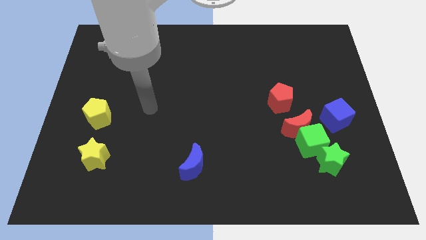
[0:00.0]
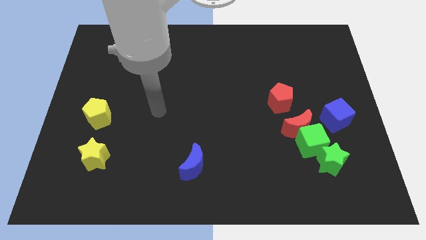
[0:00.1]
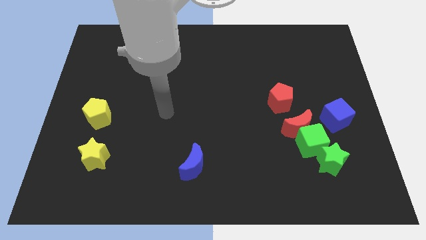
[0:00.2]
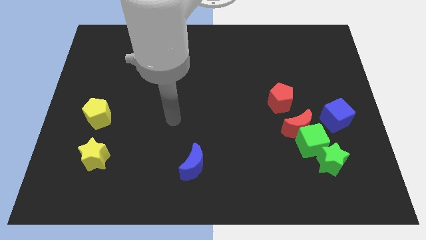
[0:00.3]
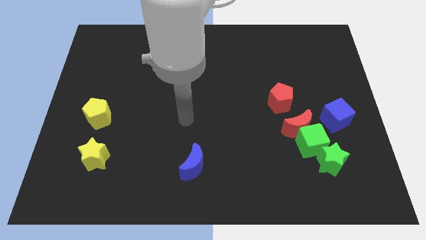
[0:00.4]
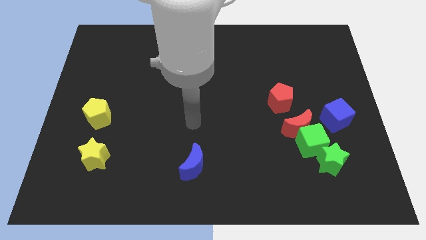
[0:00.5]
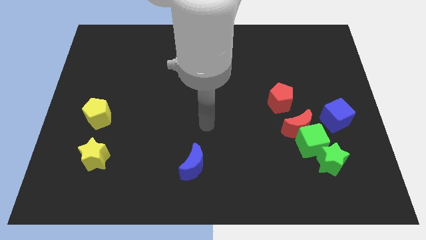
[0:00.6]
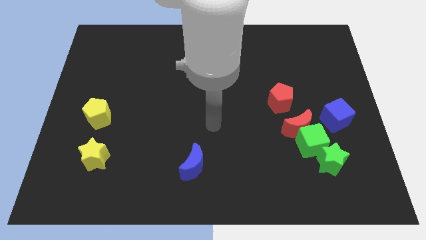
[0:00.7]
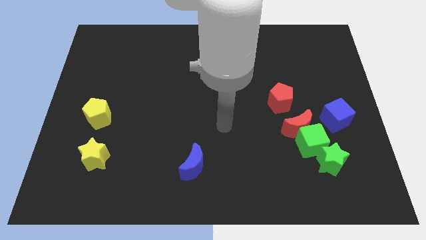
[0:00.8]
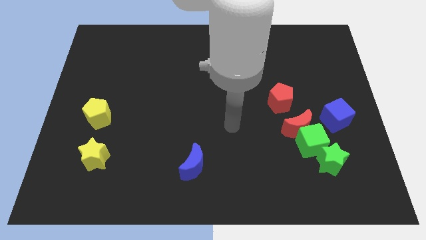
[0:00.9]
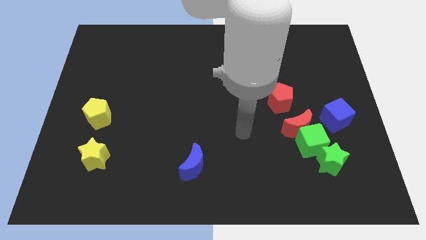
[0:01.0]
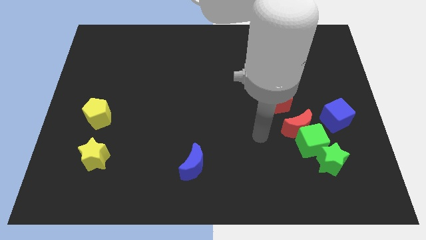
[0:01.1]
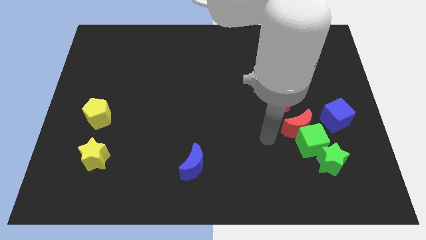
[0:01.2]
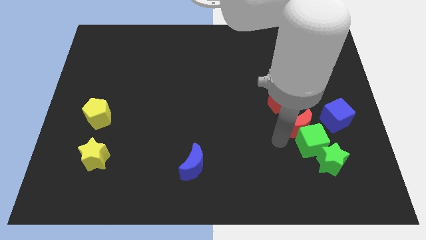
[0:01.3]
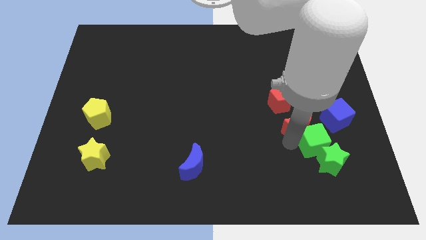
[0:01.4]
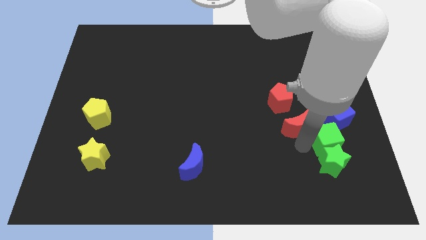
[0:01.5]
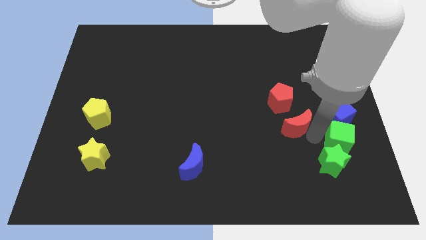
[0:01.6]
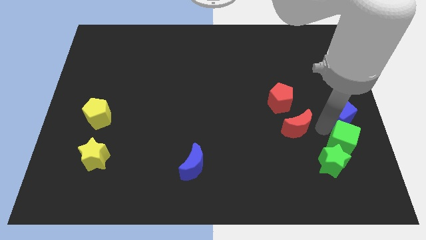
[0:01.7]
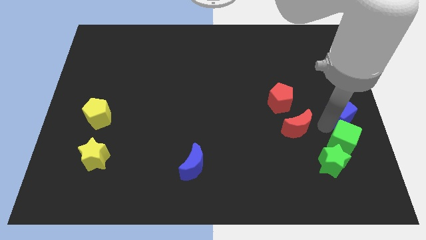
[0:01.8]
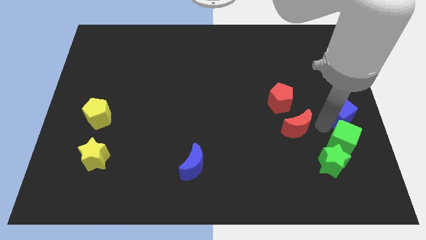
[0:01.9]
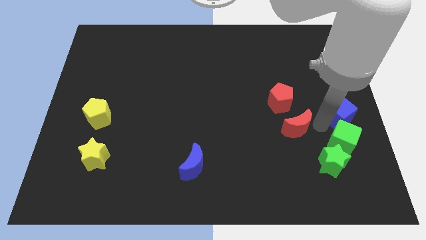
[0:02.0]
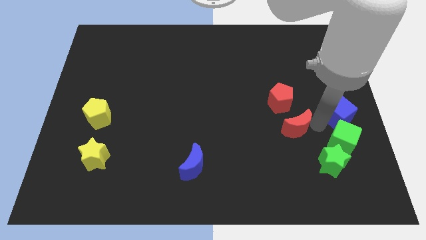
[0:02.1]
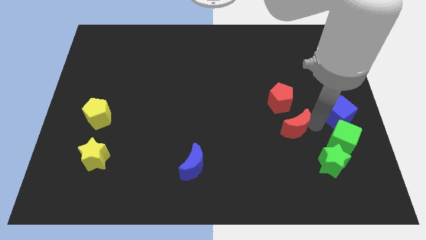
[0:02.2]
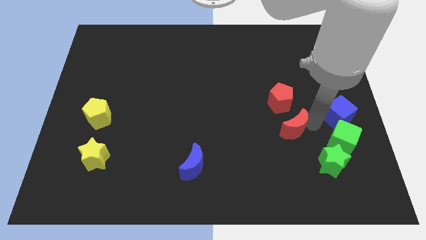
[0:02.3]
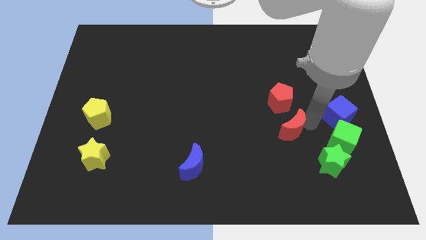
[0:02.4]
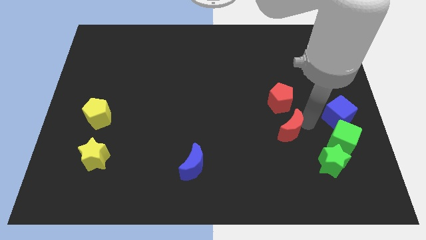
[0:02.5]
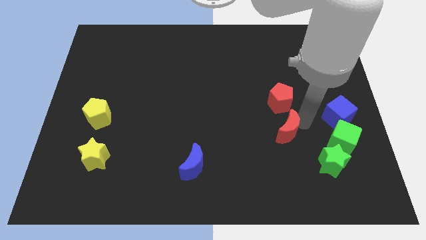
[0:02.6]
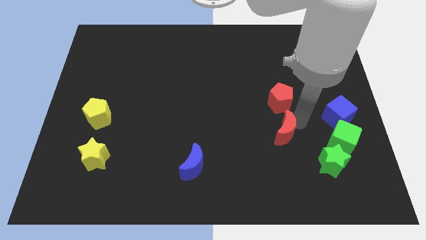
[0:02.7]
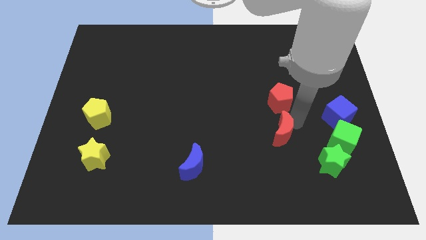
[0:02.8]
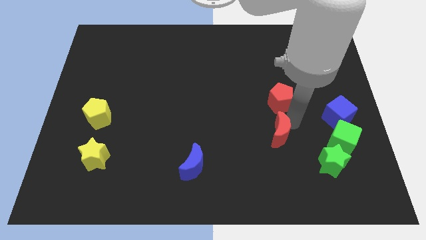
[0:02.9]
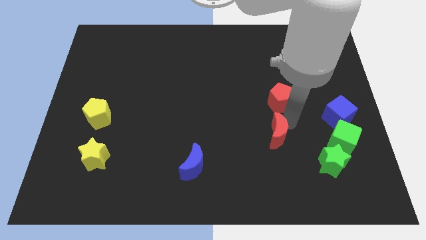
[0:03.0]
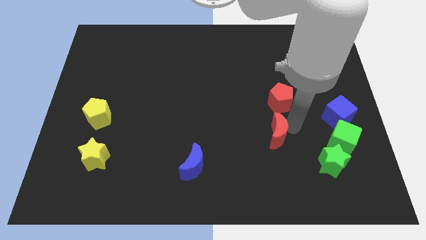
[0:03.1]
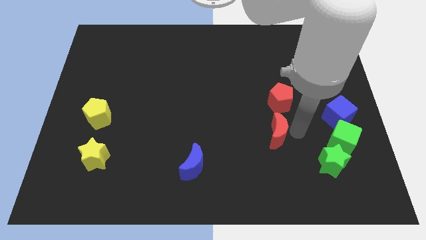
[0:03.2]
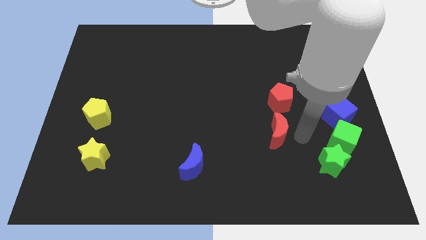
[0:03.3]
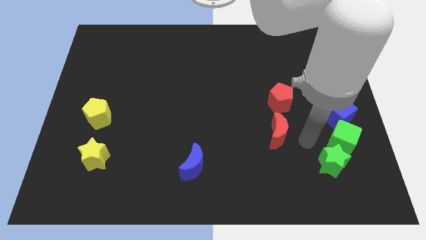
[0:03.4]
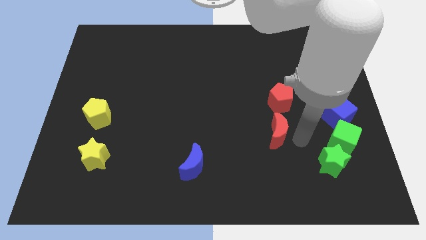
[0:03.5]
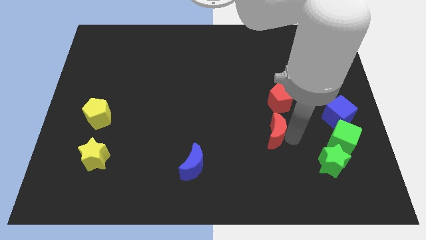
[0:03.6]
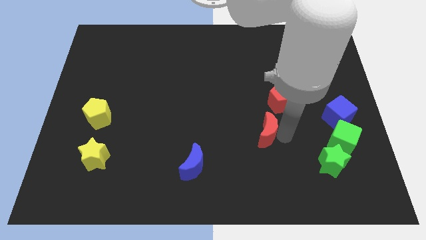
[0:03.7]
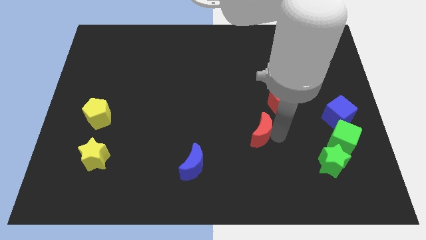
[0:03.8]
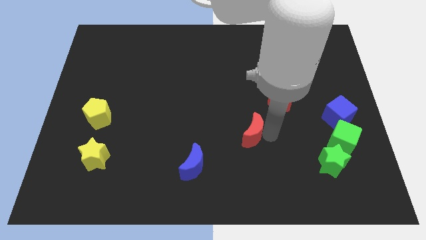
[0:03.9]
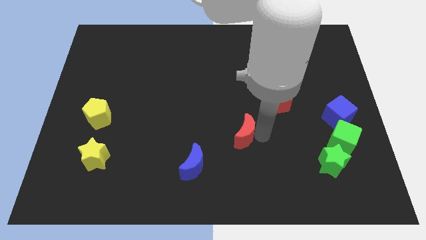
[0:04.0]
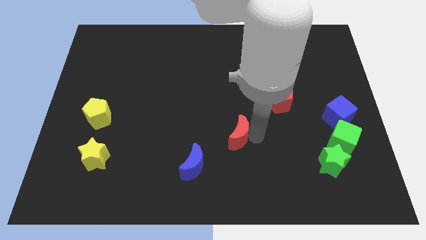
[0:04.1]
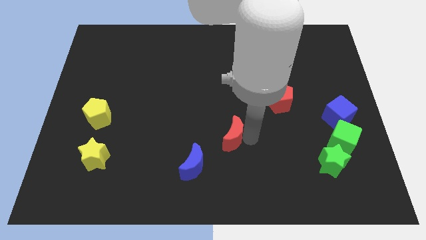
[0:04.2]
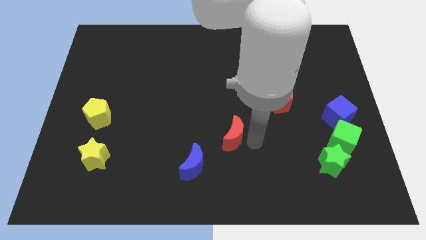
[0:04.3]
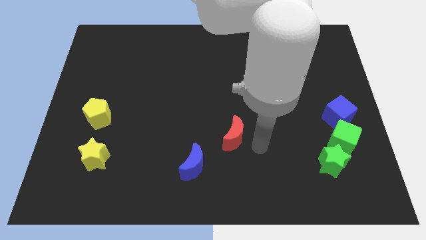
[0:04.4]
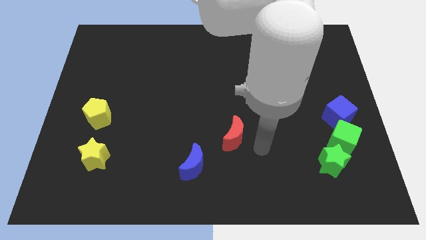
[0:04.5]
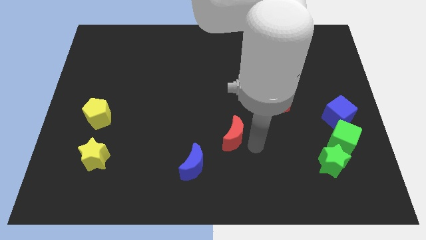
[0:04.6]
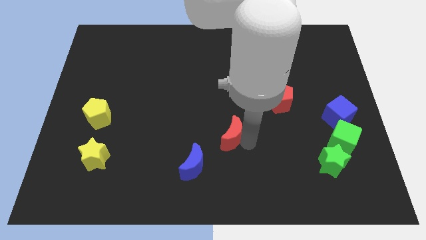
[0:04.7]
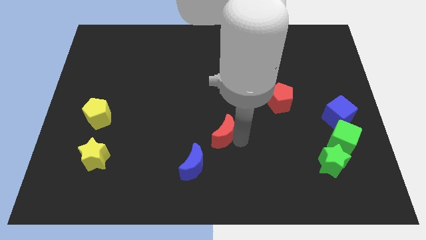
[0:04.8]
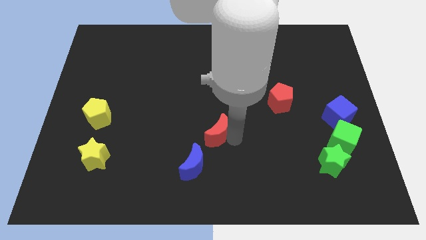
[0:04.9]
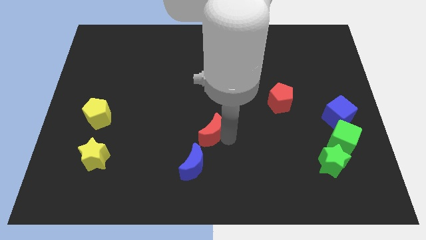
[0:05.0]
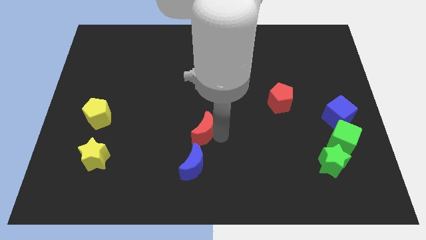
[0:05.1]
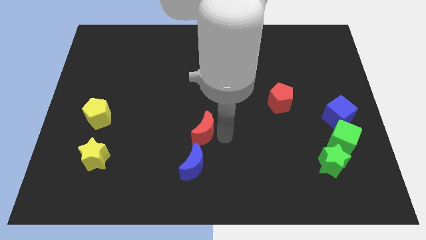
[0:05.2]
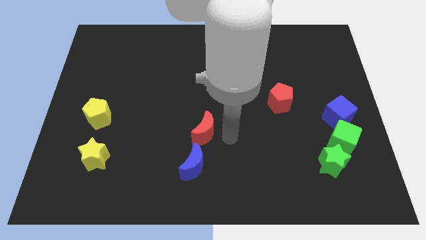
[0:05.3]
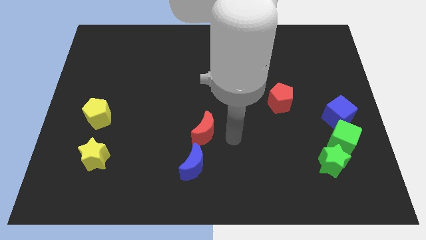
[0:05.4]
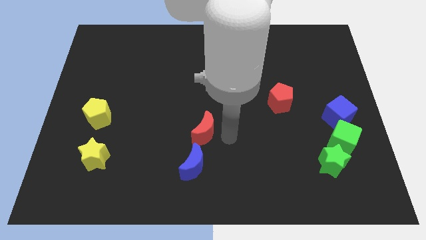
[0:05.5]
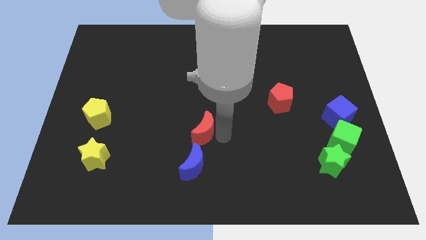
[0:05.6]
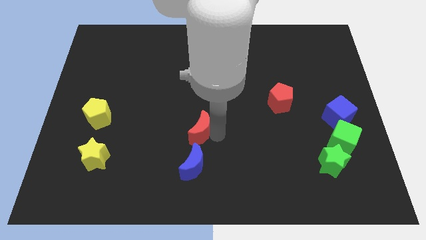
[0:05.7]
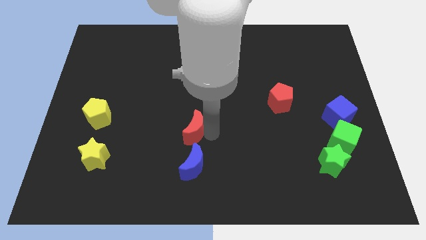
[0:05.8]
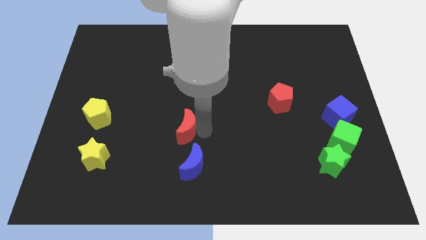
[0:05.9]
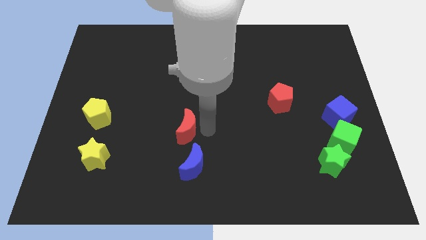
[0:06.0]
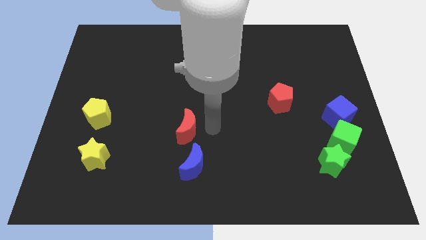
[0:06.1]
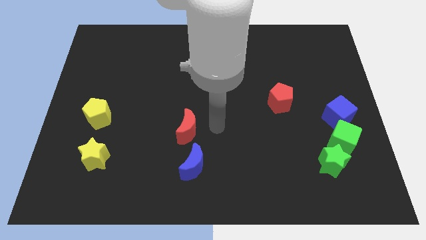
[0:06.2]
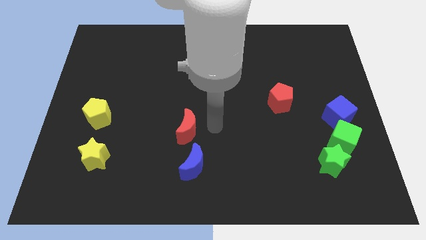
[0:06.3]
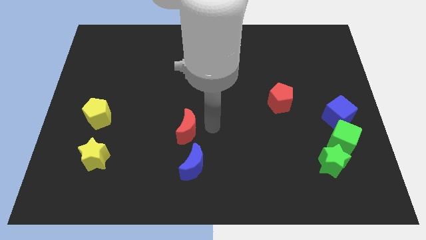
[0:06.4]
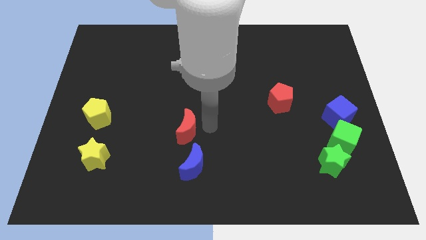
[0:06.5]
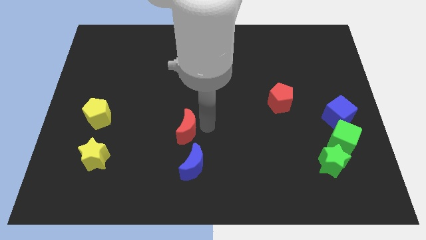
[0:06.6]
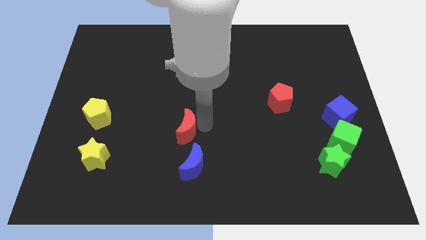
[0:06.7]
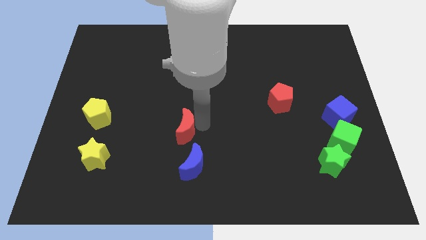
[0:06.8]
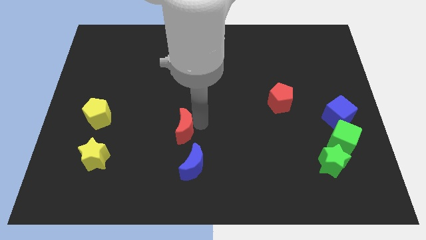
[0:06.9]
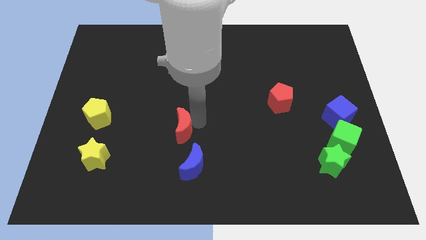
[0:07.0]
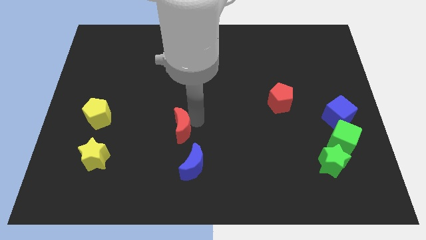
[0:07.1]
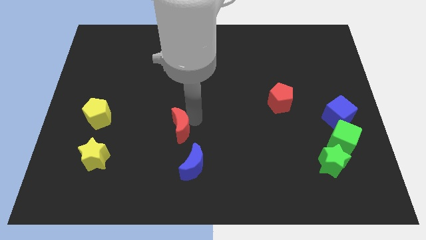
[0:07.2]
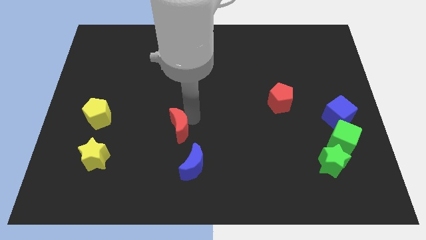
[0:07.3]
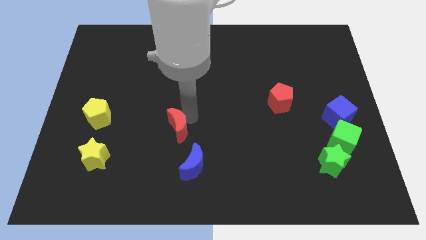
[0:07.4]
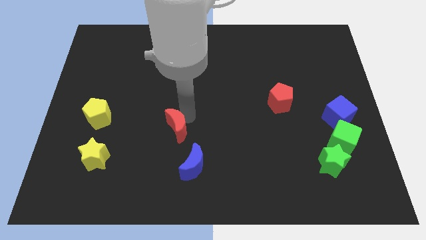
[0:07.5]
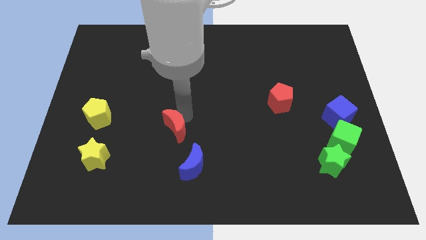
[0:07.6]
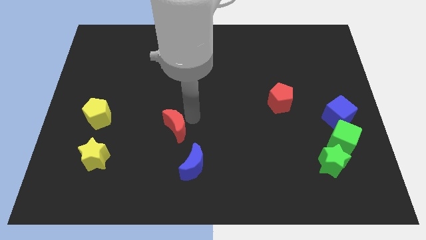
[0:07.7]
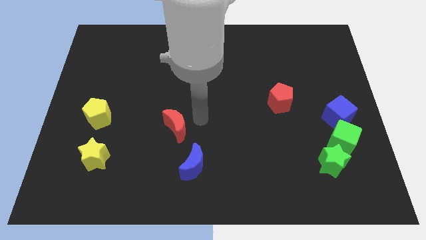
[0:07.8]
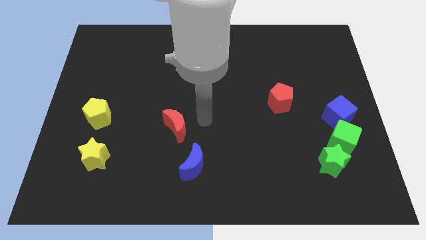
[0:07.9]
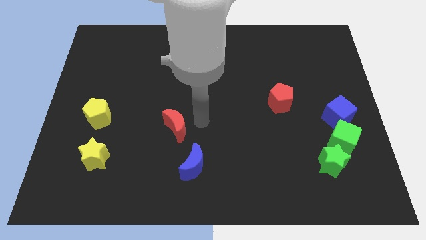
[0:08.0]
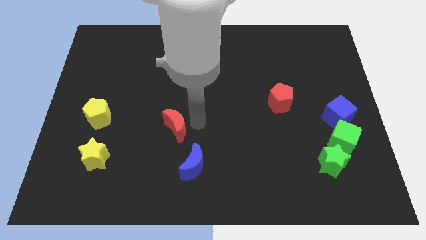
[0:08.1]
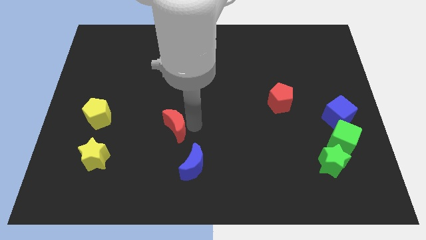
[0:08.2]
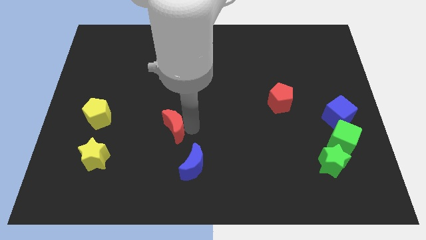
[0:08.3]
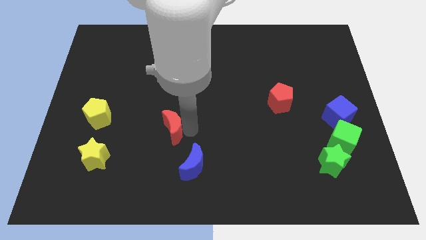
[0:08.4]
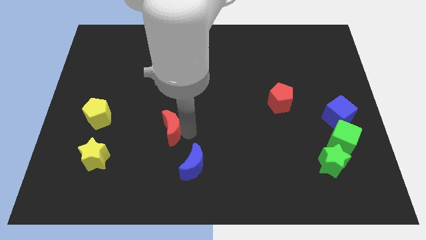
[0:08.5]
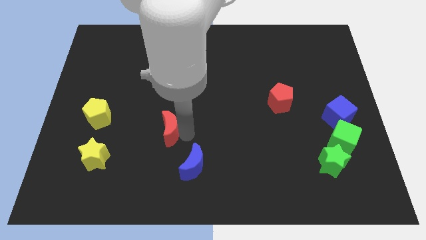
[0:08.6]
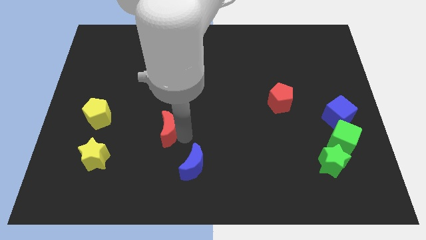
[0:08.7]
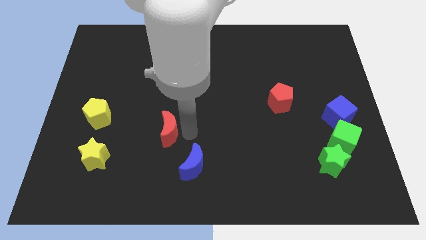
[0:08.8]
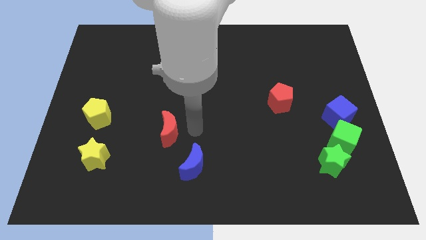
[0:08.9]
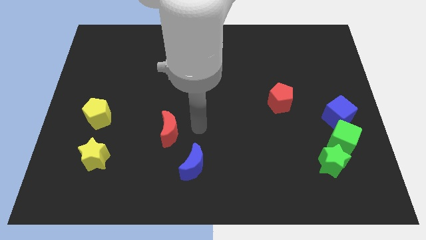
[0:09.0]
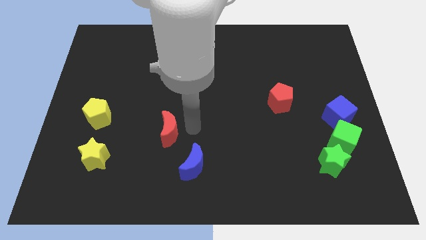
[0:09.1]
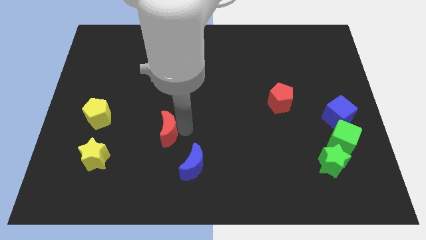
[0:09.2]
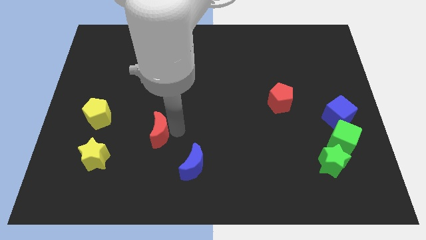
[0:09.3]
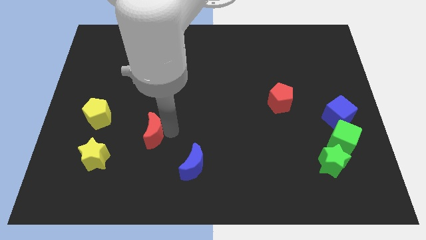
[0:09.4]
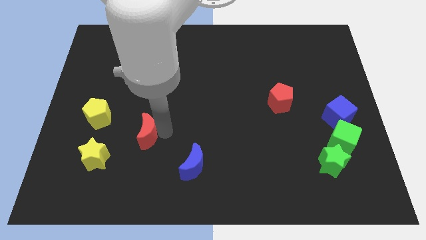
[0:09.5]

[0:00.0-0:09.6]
push the red moon to the top right side of the yellow star
